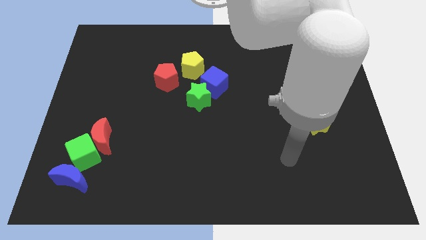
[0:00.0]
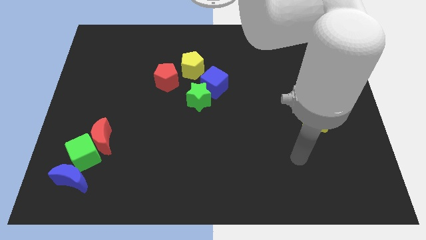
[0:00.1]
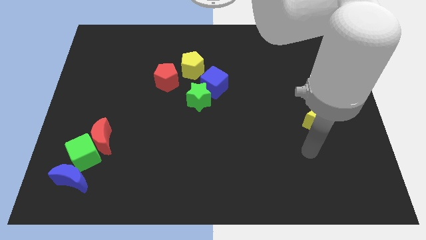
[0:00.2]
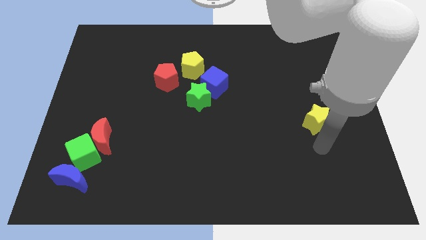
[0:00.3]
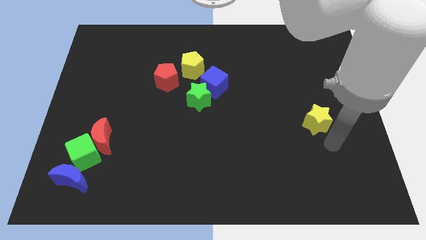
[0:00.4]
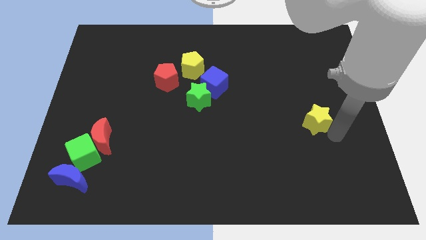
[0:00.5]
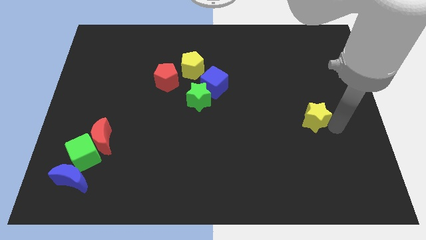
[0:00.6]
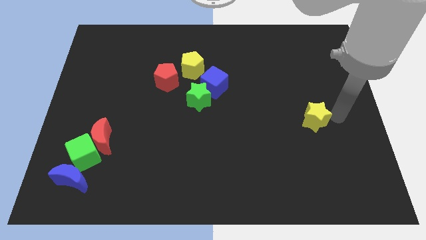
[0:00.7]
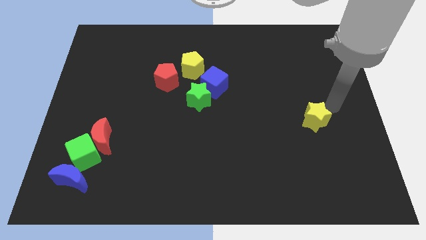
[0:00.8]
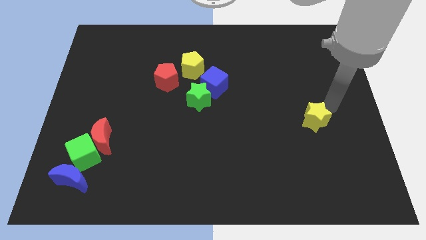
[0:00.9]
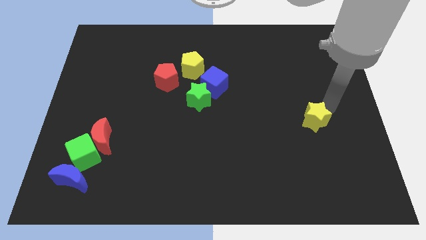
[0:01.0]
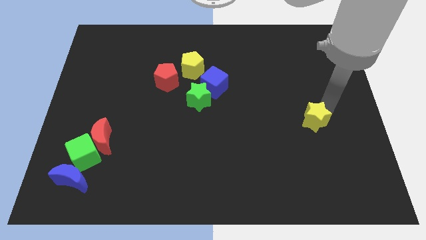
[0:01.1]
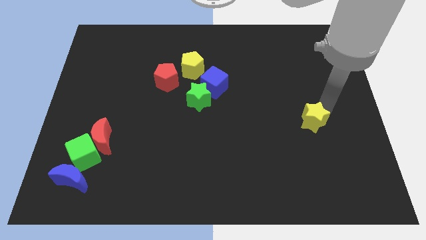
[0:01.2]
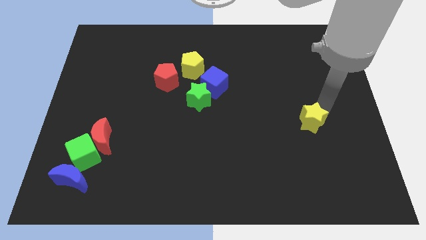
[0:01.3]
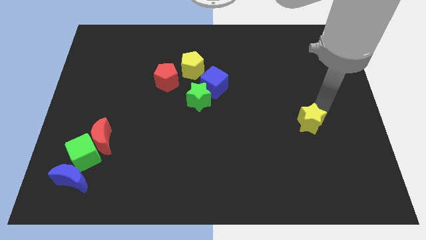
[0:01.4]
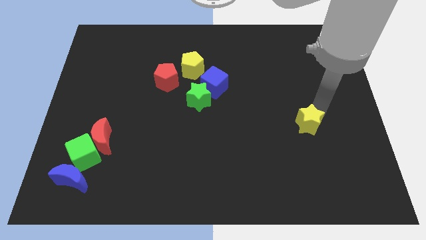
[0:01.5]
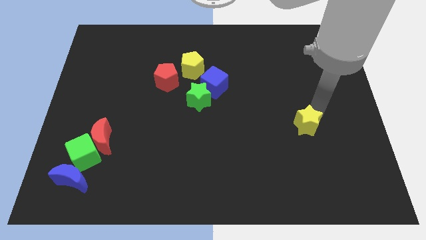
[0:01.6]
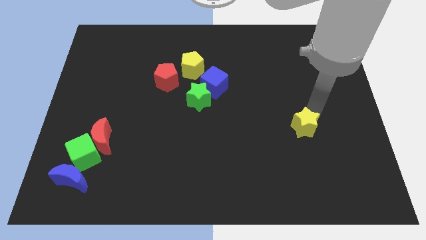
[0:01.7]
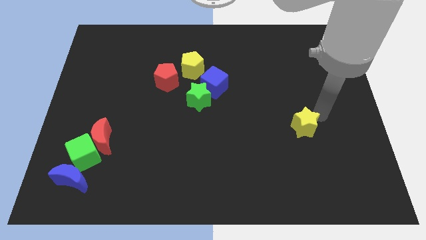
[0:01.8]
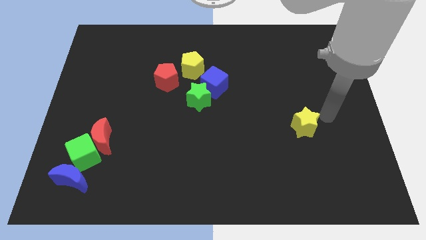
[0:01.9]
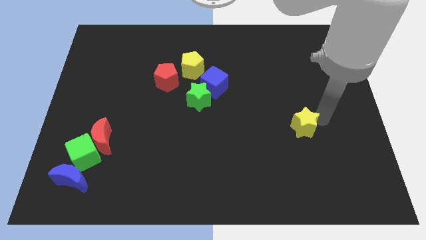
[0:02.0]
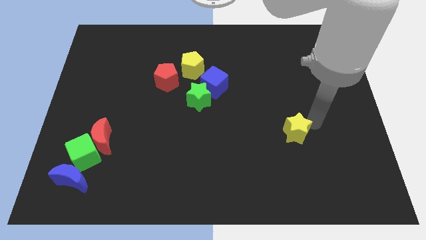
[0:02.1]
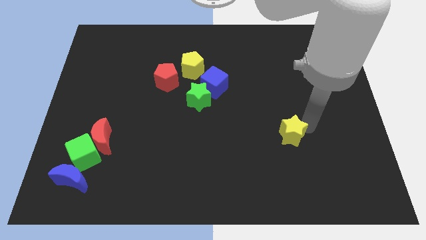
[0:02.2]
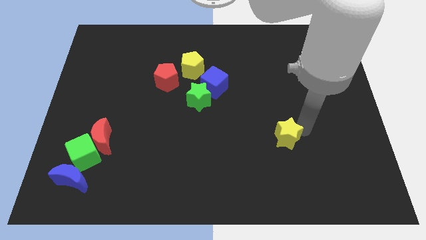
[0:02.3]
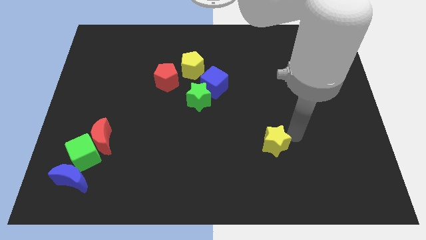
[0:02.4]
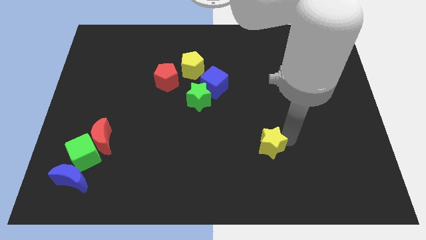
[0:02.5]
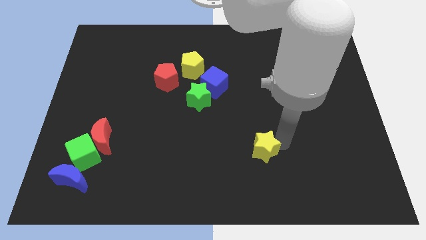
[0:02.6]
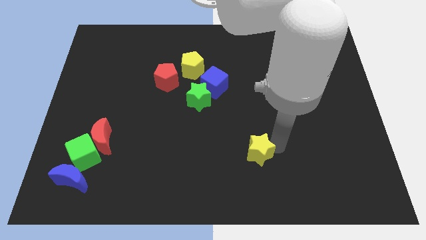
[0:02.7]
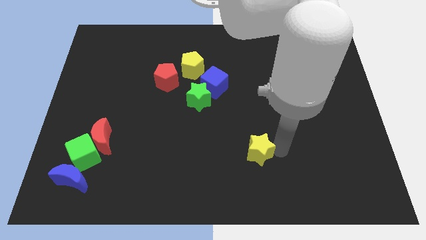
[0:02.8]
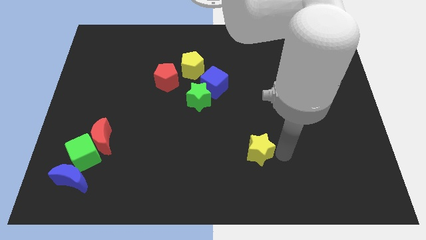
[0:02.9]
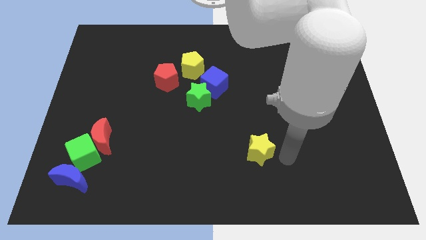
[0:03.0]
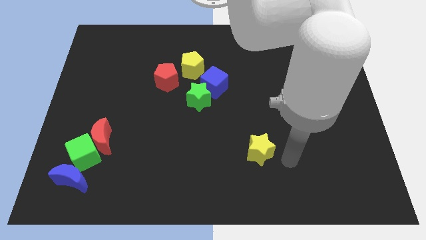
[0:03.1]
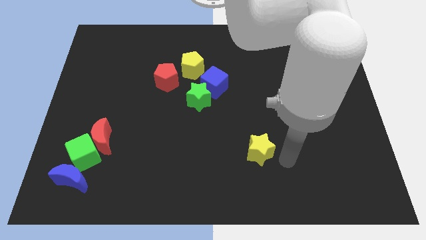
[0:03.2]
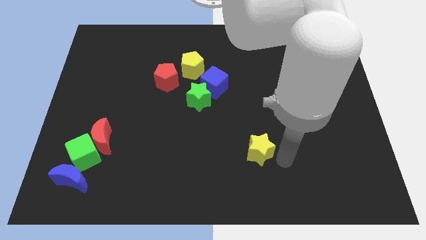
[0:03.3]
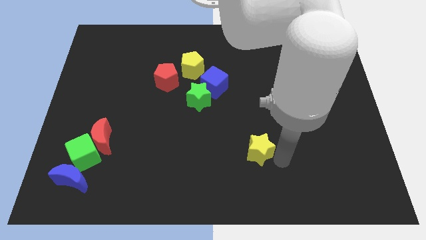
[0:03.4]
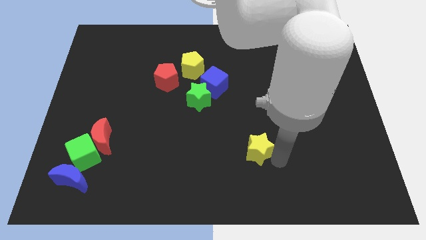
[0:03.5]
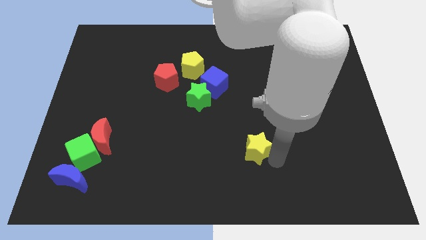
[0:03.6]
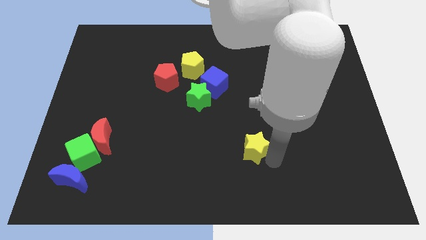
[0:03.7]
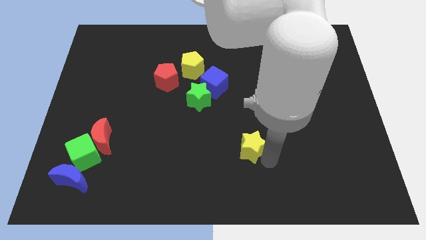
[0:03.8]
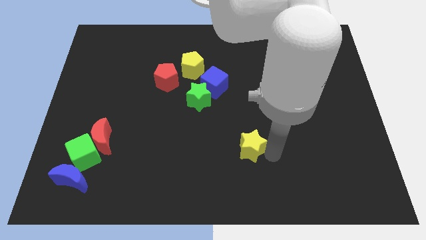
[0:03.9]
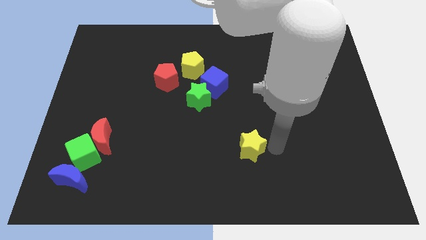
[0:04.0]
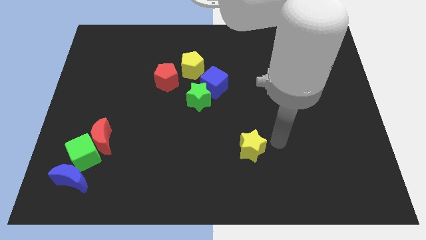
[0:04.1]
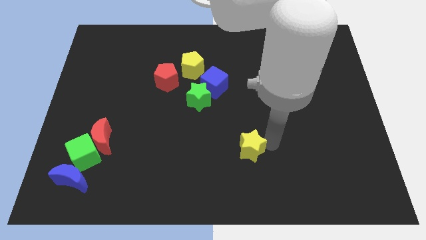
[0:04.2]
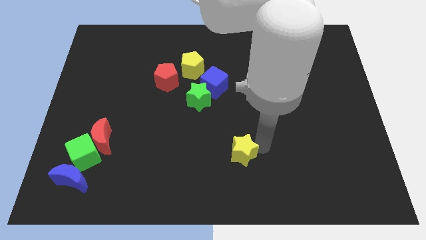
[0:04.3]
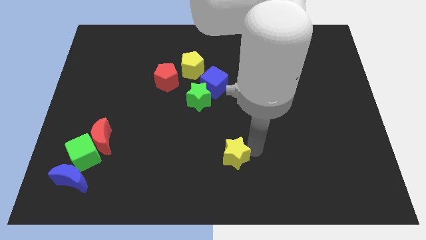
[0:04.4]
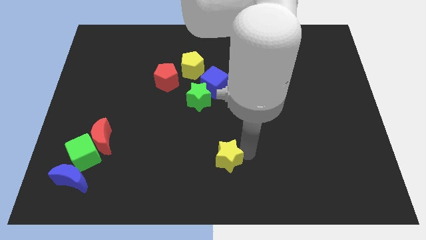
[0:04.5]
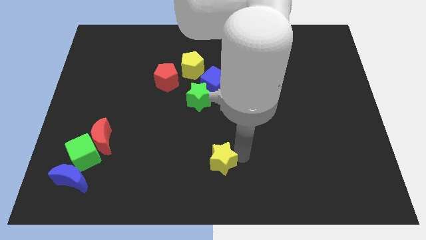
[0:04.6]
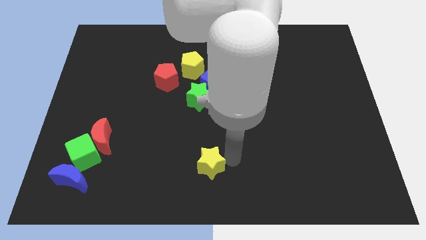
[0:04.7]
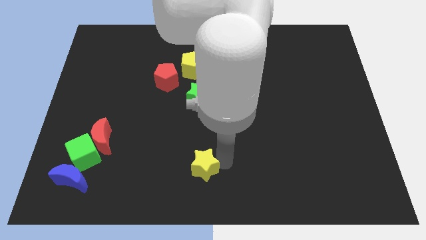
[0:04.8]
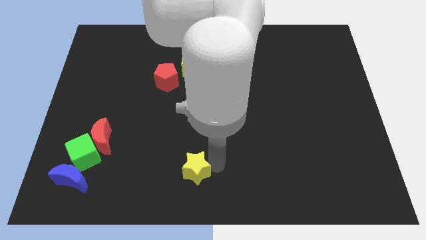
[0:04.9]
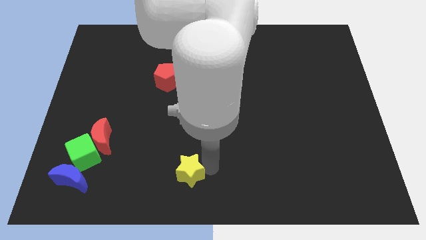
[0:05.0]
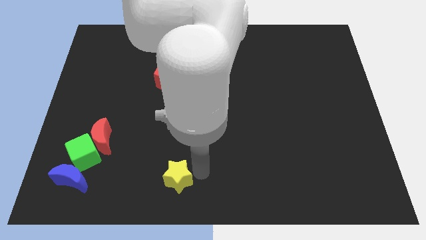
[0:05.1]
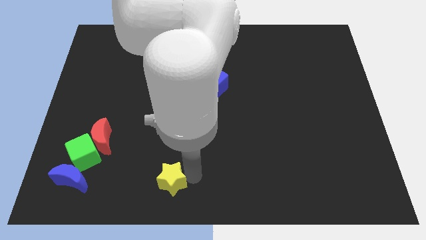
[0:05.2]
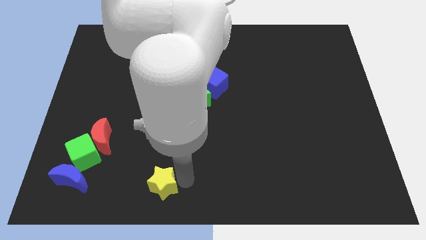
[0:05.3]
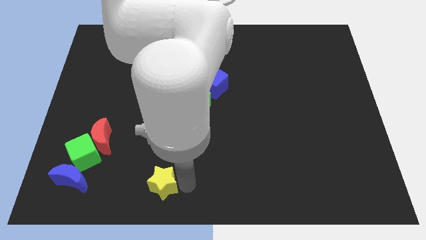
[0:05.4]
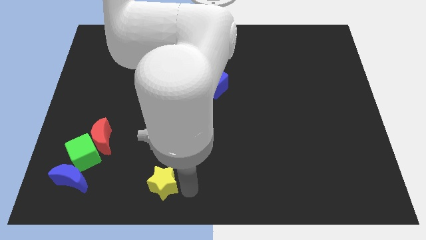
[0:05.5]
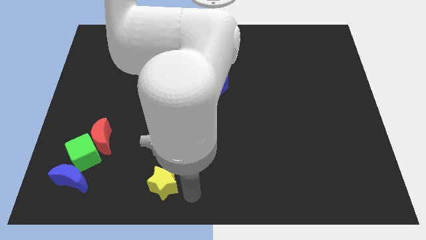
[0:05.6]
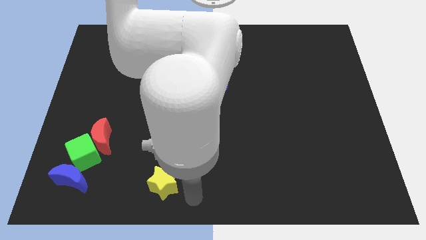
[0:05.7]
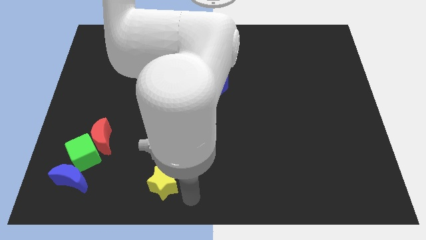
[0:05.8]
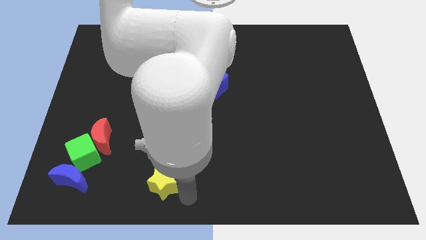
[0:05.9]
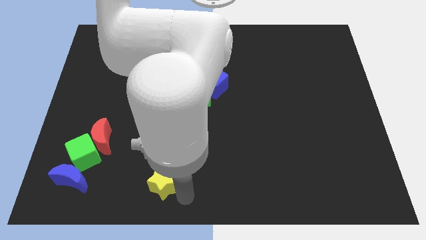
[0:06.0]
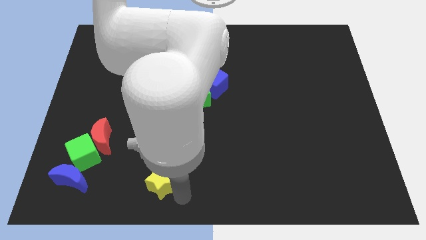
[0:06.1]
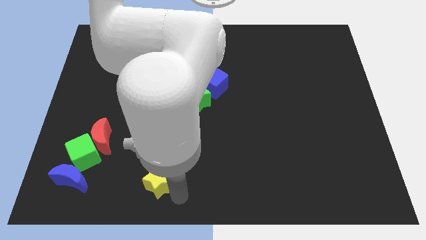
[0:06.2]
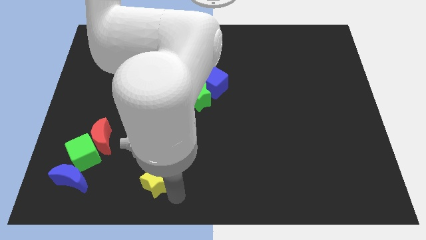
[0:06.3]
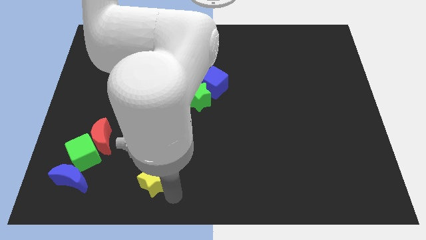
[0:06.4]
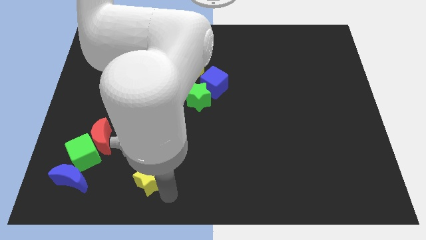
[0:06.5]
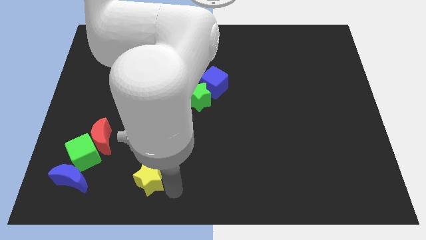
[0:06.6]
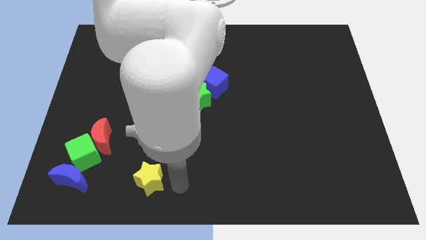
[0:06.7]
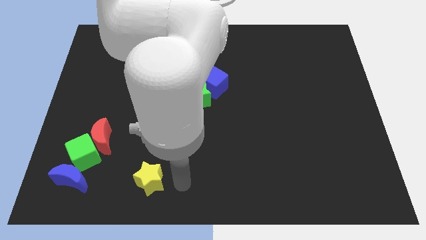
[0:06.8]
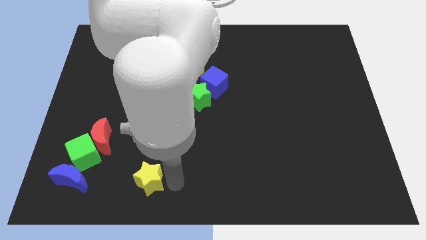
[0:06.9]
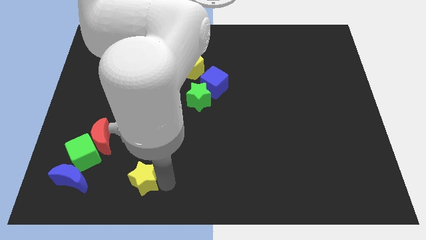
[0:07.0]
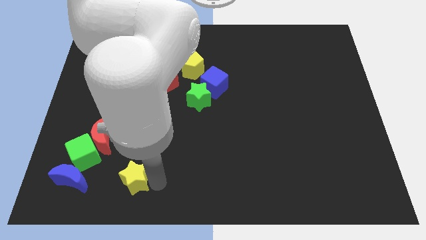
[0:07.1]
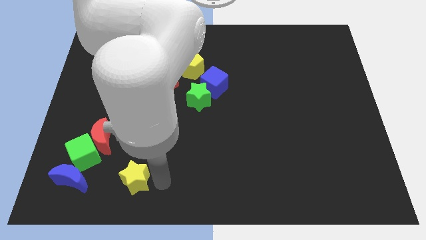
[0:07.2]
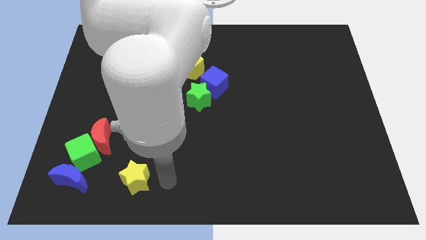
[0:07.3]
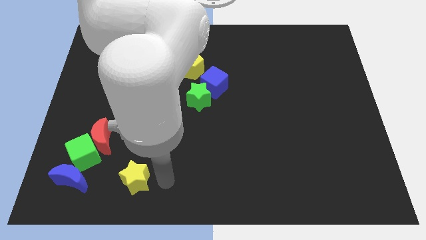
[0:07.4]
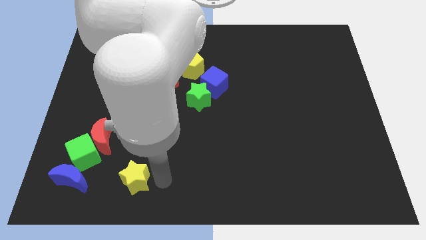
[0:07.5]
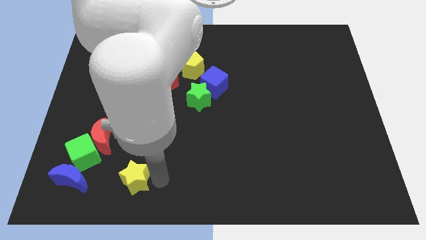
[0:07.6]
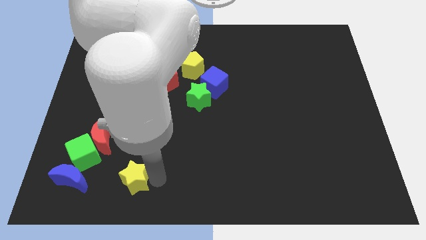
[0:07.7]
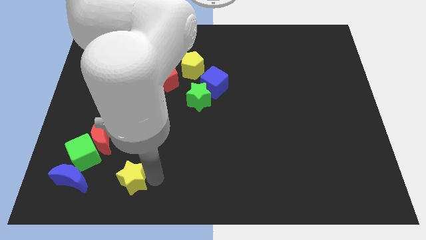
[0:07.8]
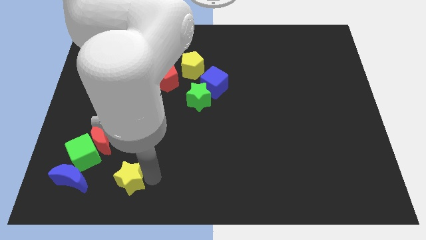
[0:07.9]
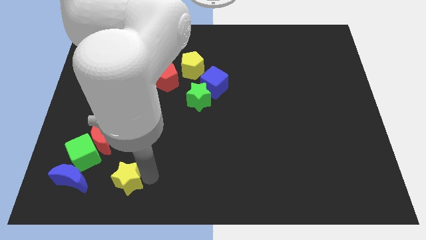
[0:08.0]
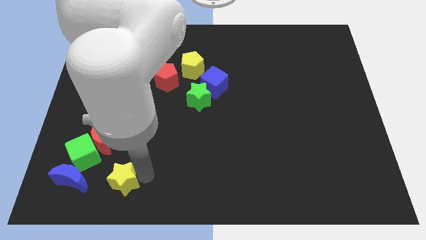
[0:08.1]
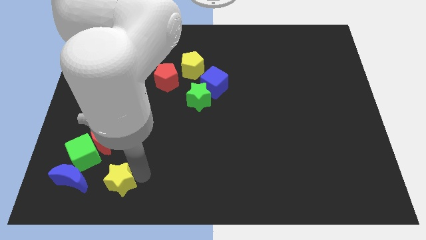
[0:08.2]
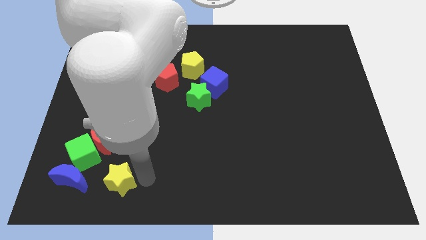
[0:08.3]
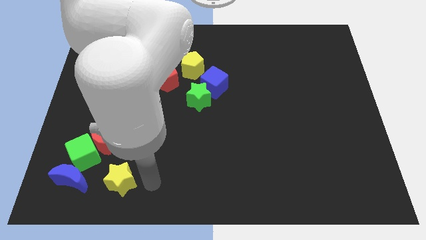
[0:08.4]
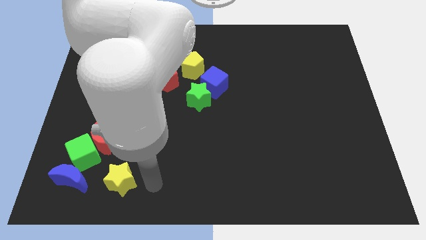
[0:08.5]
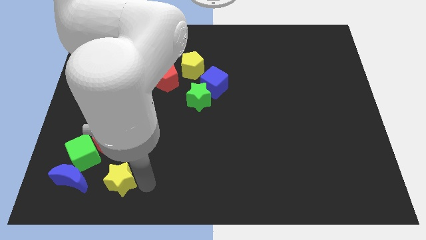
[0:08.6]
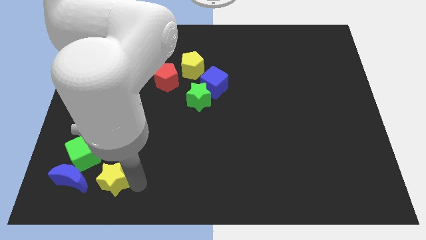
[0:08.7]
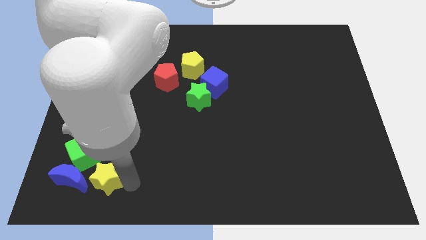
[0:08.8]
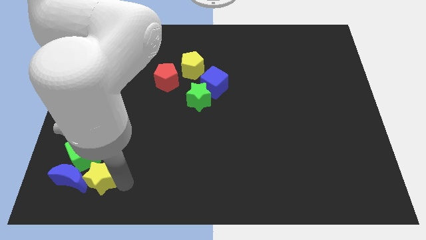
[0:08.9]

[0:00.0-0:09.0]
put the yellow star close to the blue moon
